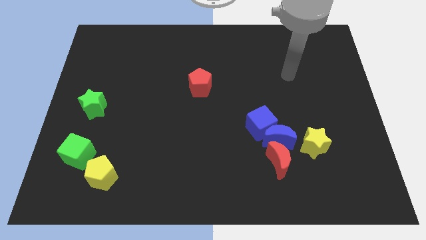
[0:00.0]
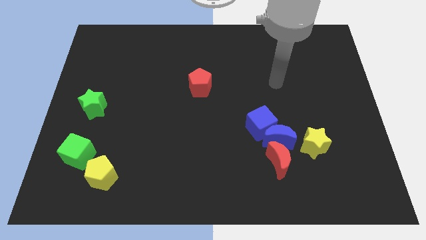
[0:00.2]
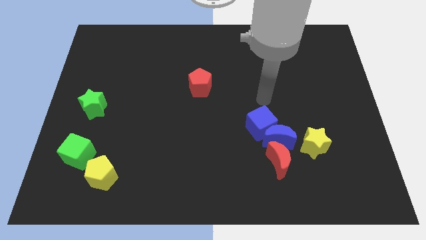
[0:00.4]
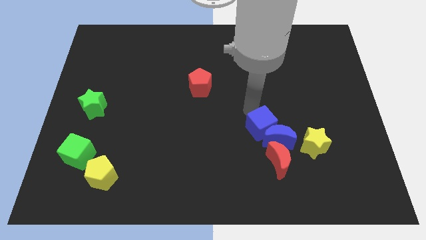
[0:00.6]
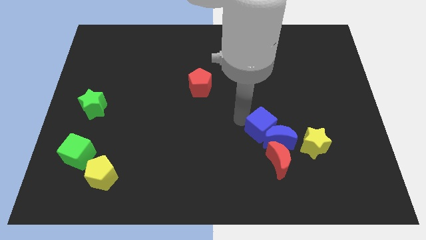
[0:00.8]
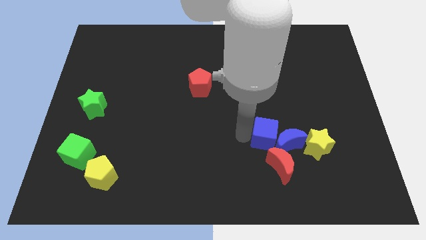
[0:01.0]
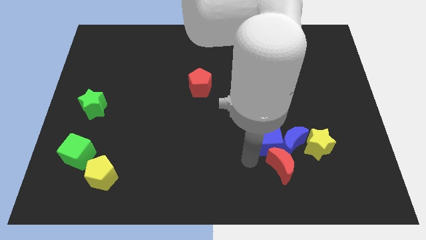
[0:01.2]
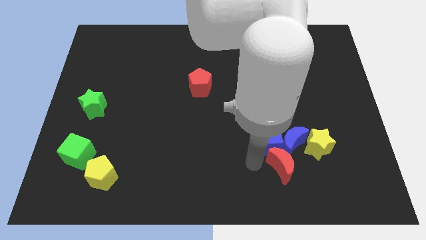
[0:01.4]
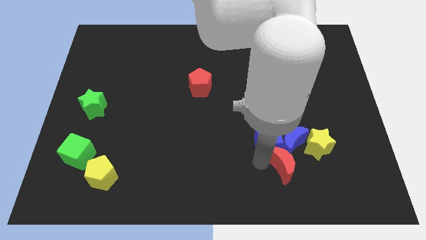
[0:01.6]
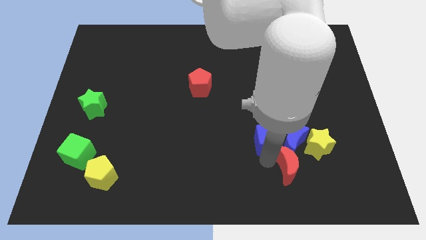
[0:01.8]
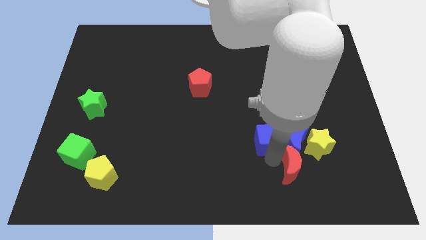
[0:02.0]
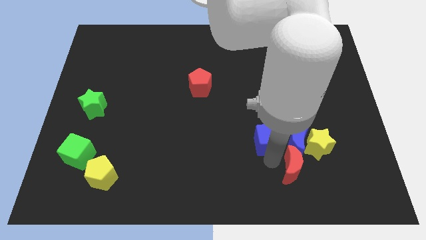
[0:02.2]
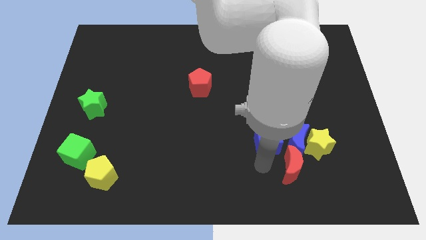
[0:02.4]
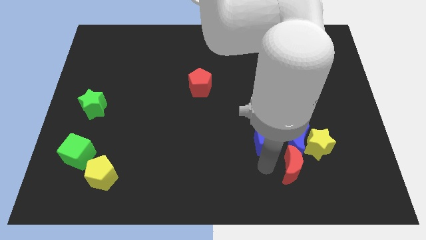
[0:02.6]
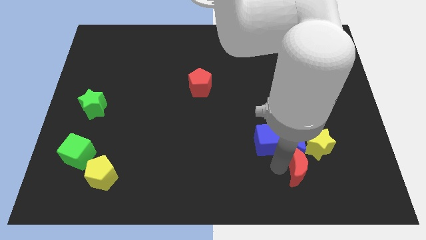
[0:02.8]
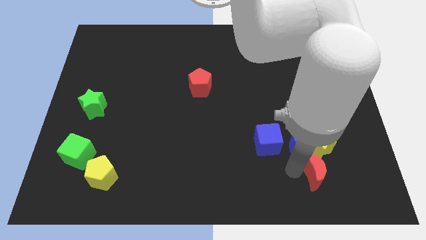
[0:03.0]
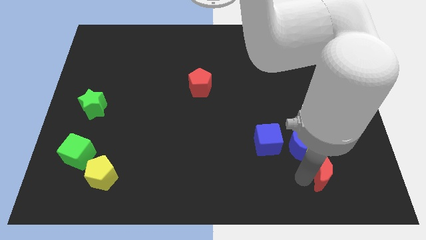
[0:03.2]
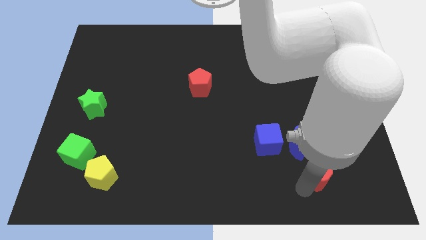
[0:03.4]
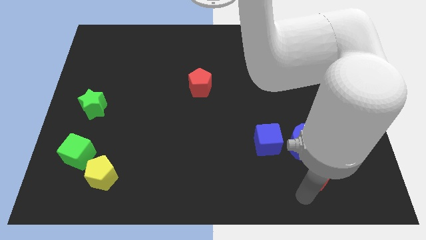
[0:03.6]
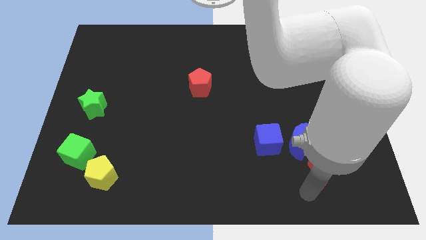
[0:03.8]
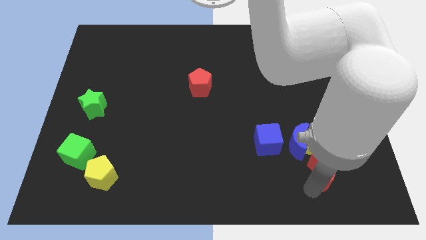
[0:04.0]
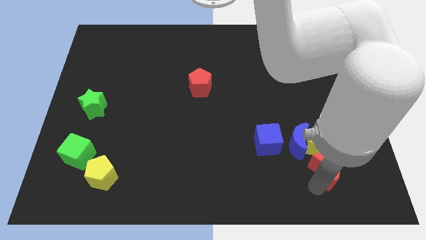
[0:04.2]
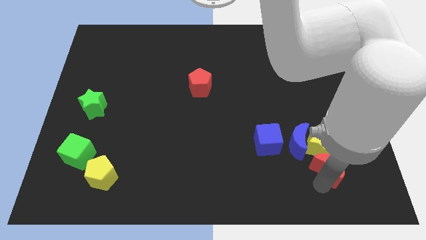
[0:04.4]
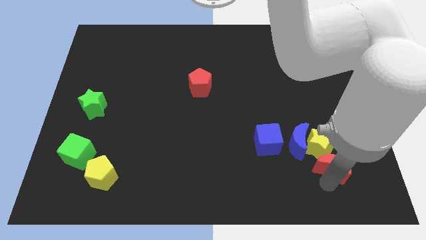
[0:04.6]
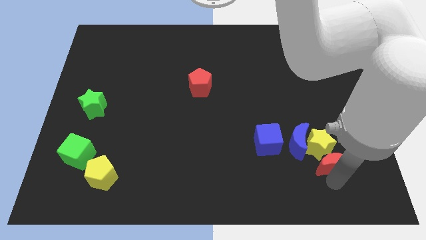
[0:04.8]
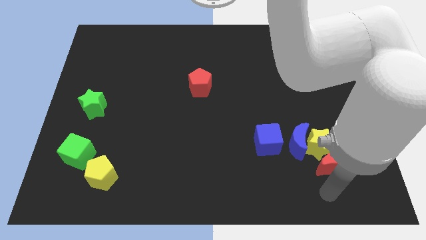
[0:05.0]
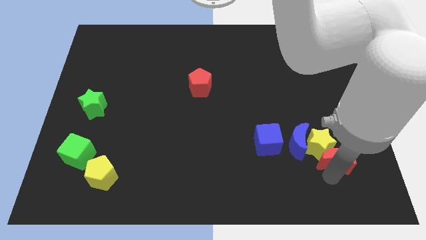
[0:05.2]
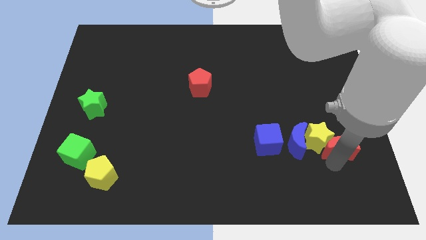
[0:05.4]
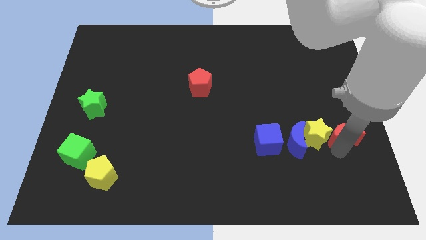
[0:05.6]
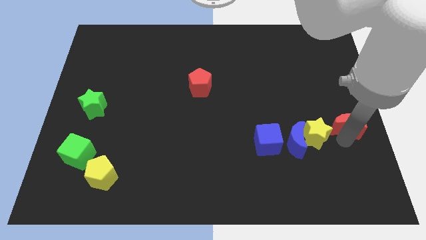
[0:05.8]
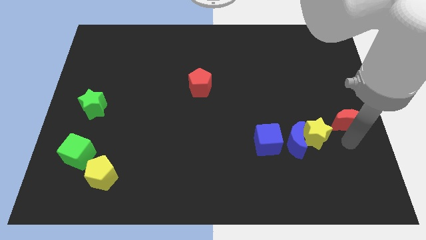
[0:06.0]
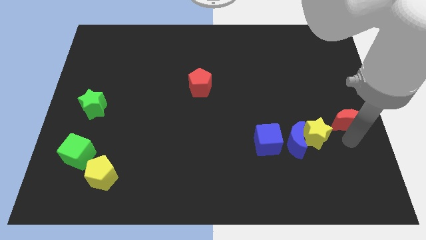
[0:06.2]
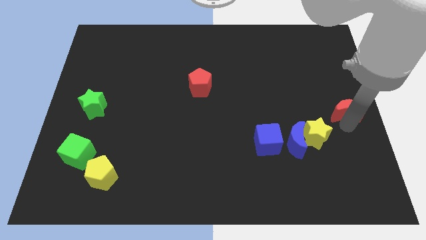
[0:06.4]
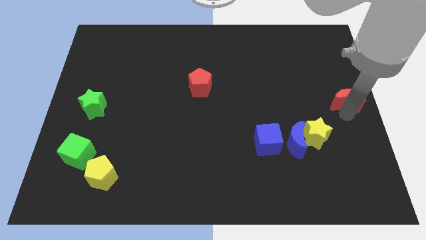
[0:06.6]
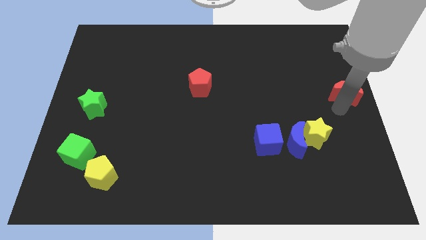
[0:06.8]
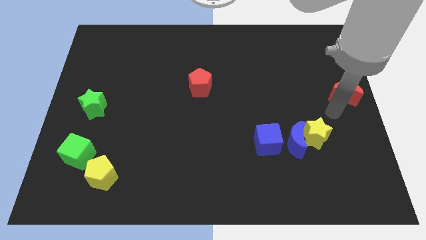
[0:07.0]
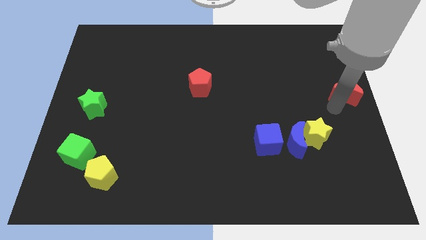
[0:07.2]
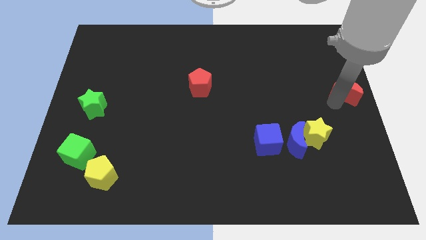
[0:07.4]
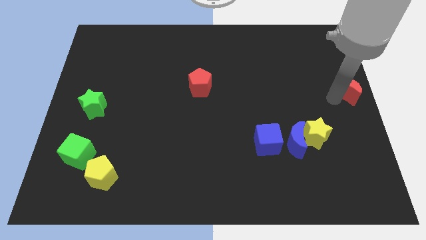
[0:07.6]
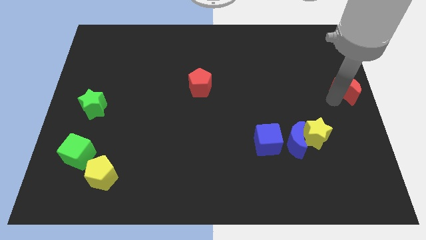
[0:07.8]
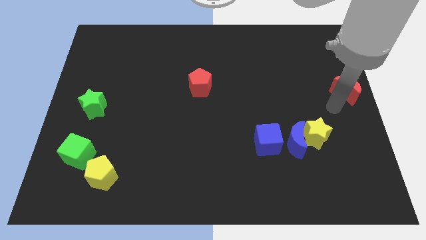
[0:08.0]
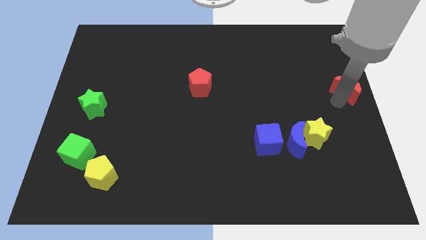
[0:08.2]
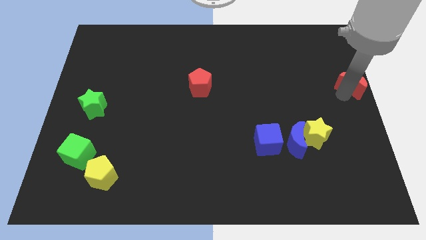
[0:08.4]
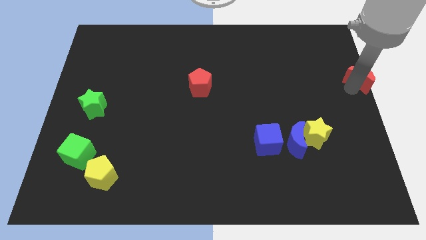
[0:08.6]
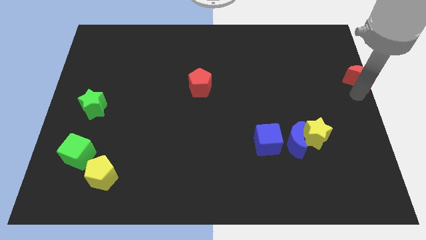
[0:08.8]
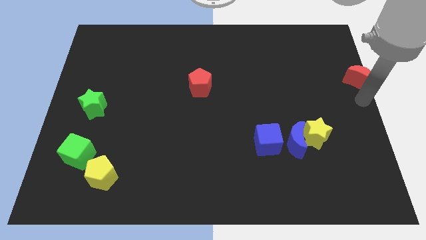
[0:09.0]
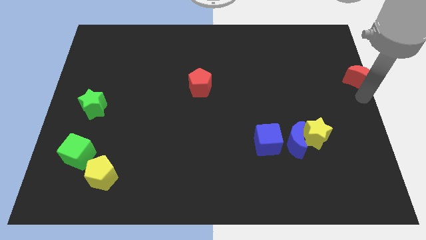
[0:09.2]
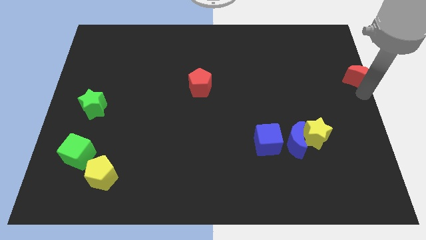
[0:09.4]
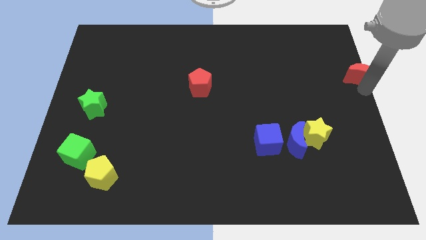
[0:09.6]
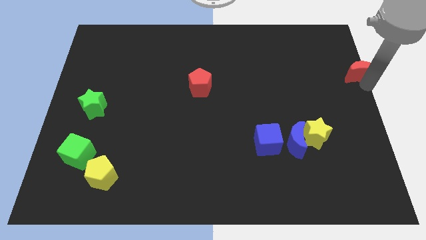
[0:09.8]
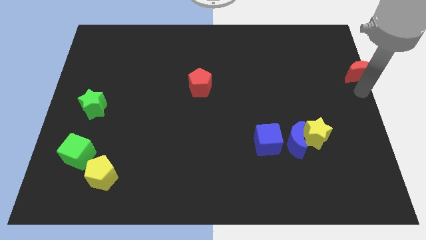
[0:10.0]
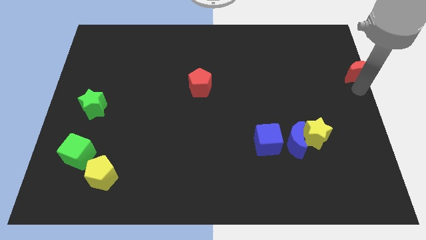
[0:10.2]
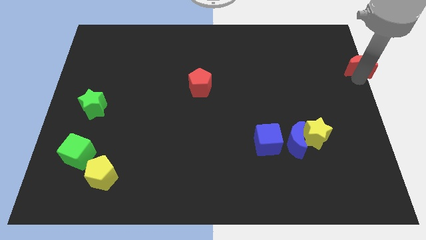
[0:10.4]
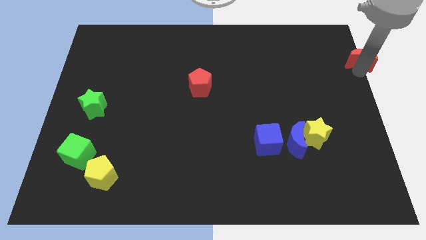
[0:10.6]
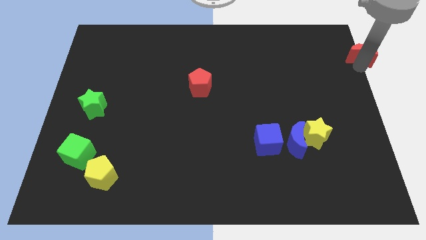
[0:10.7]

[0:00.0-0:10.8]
slide the red moon to the top right corner
